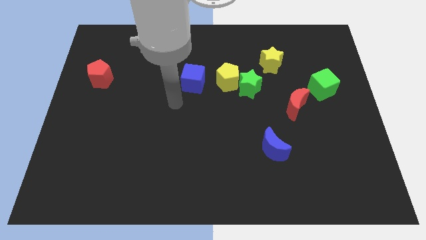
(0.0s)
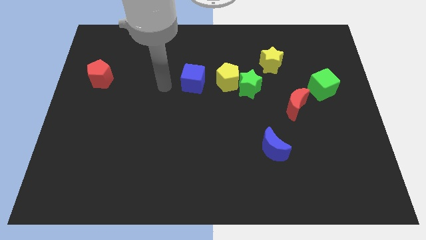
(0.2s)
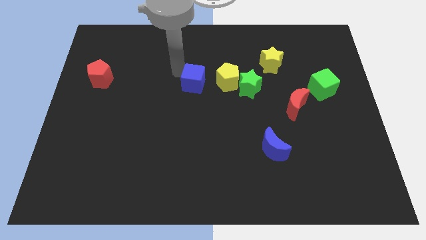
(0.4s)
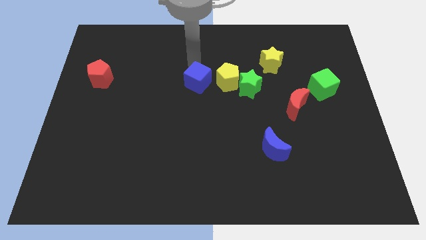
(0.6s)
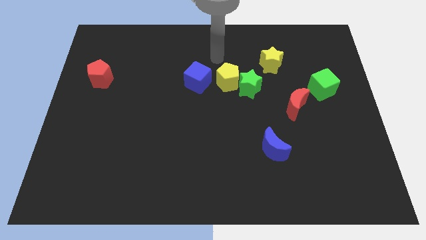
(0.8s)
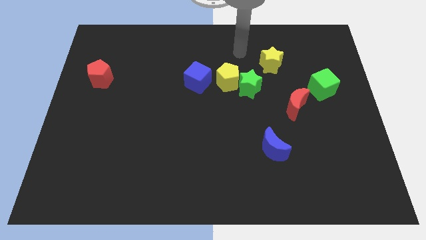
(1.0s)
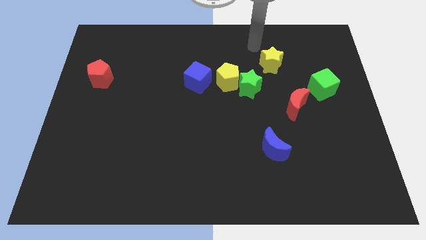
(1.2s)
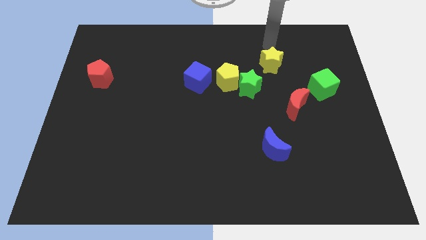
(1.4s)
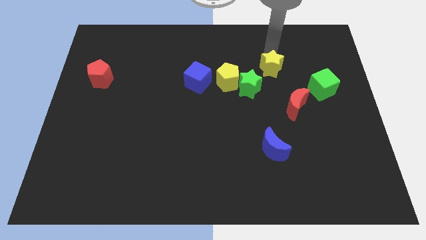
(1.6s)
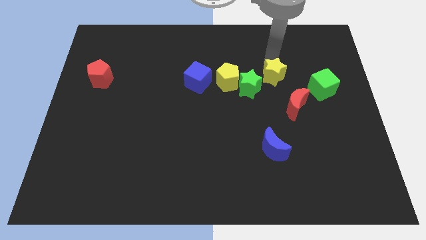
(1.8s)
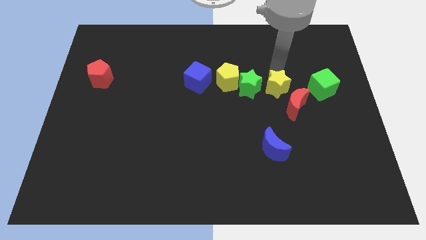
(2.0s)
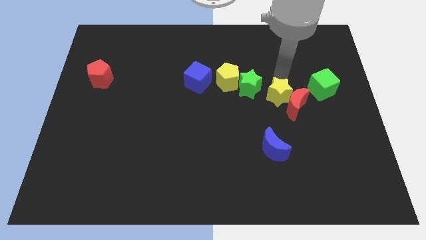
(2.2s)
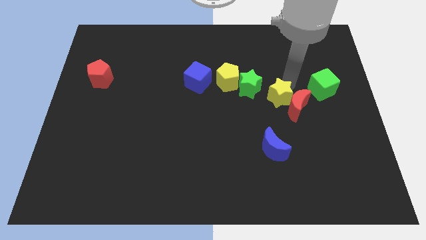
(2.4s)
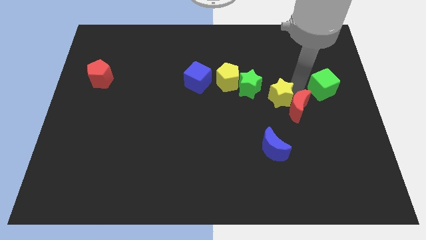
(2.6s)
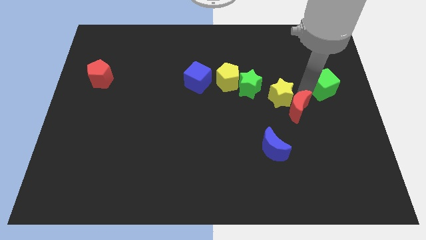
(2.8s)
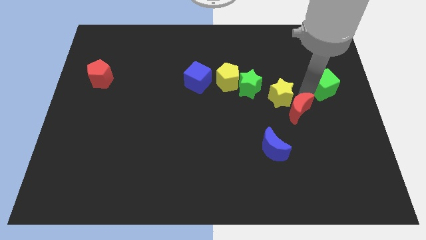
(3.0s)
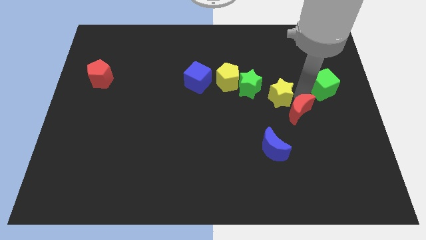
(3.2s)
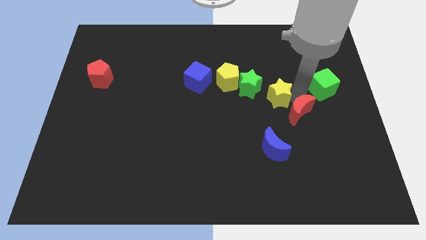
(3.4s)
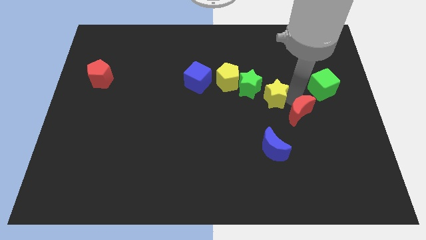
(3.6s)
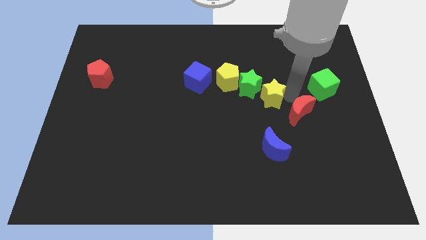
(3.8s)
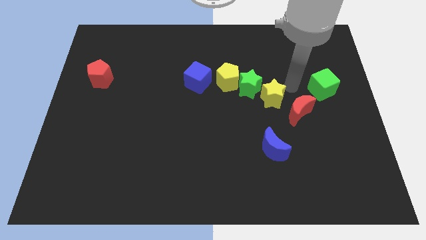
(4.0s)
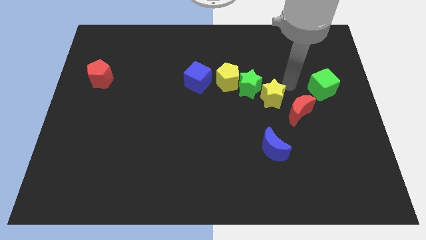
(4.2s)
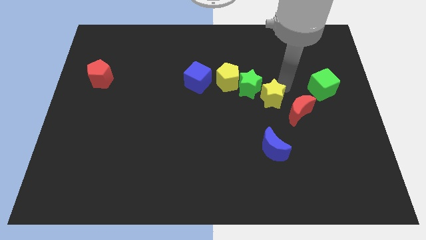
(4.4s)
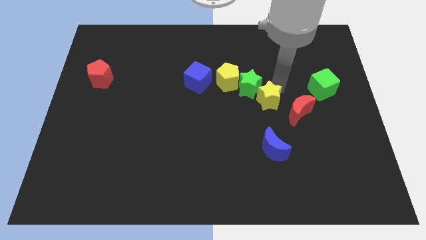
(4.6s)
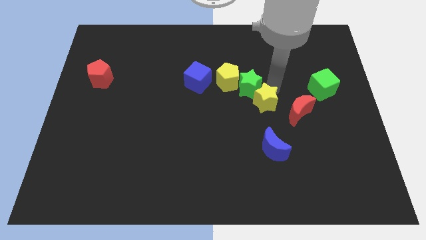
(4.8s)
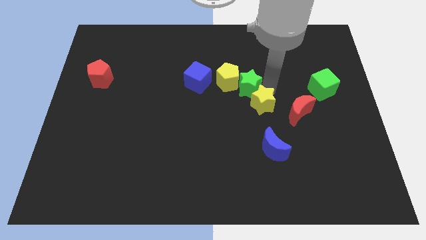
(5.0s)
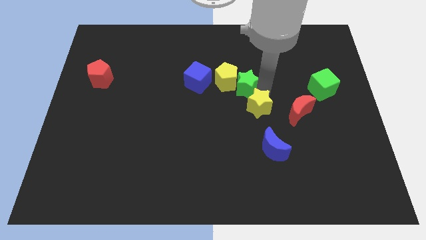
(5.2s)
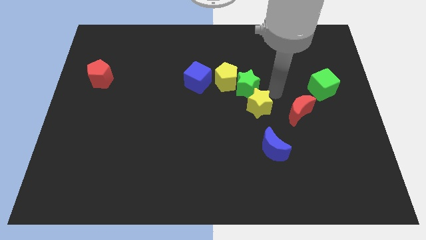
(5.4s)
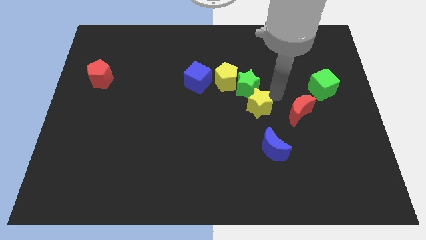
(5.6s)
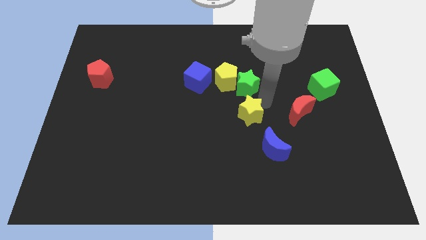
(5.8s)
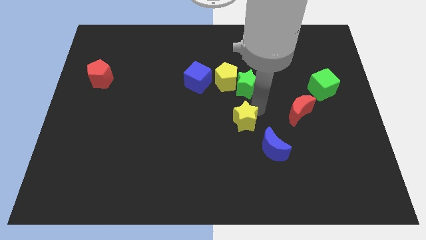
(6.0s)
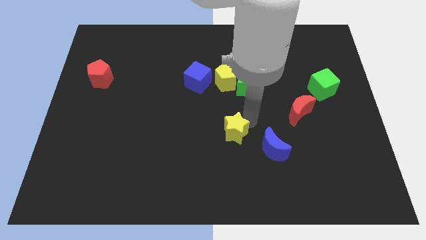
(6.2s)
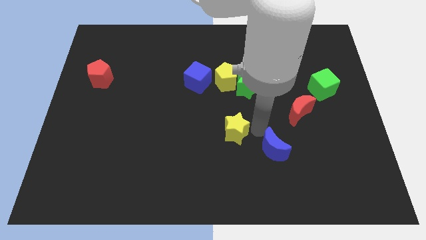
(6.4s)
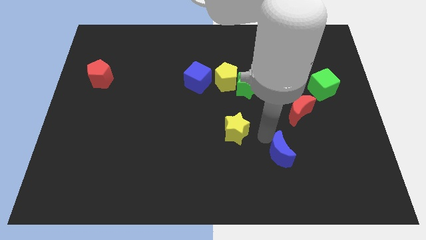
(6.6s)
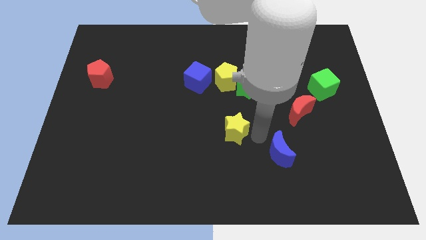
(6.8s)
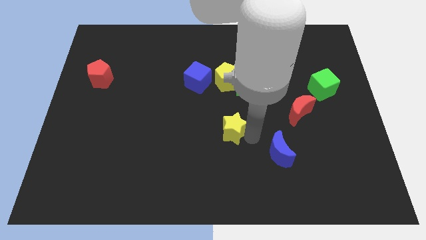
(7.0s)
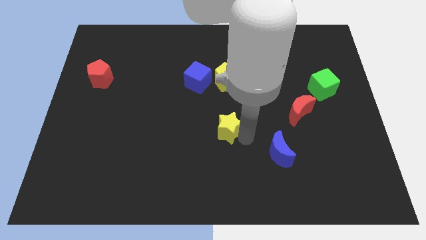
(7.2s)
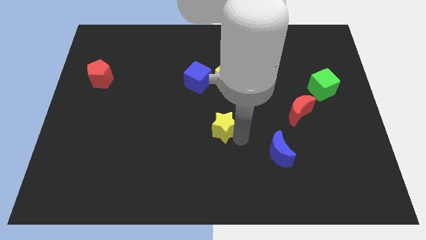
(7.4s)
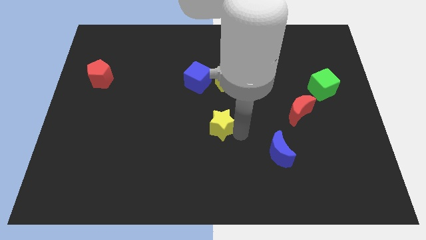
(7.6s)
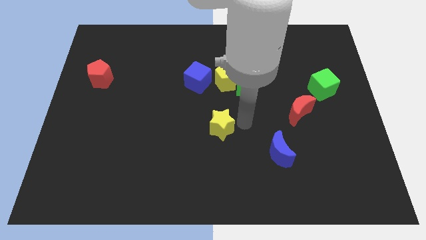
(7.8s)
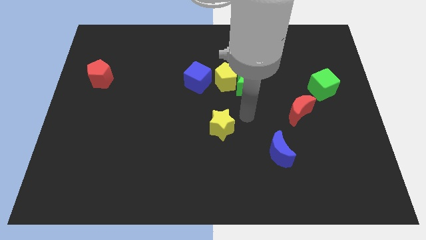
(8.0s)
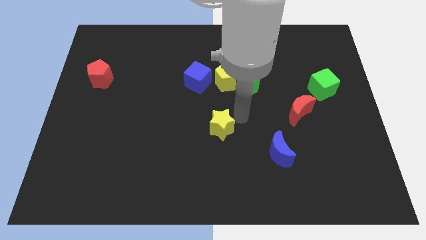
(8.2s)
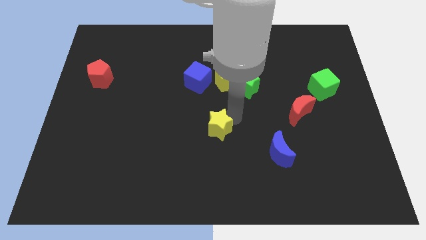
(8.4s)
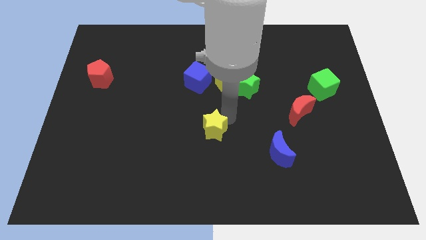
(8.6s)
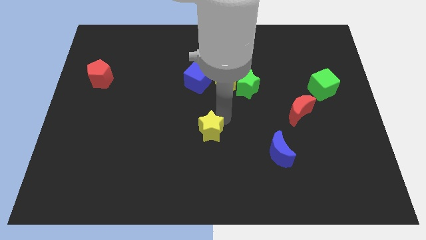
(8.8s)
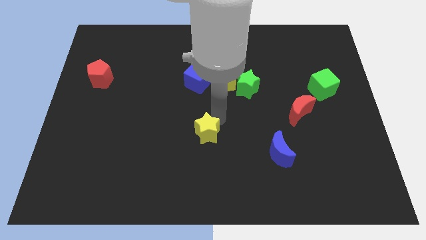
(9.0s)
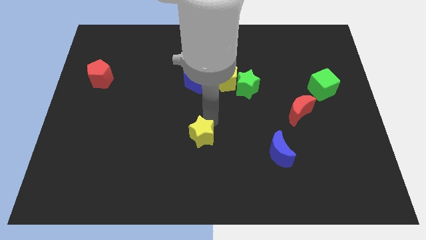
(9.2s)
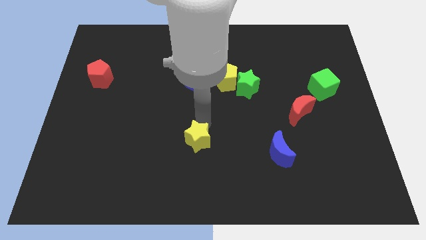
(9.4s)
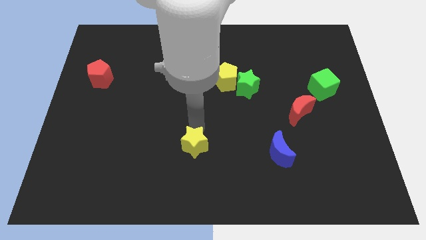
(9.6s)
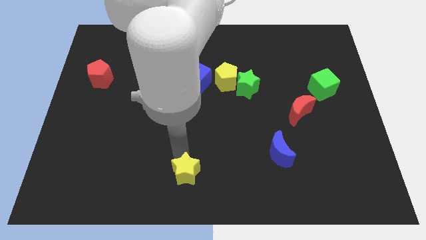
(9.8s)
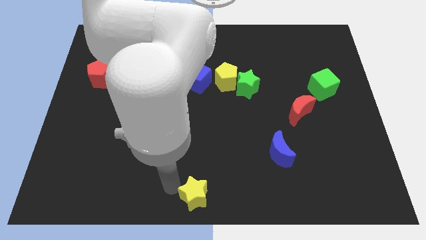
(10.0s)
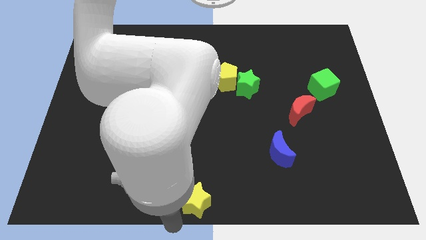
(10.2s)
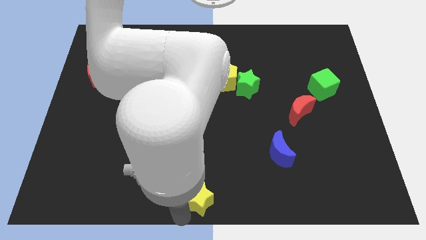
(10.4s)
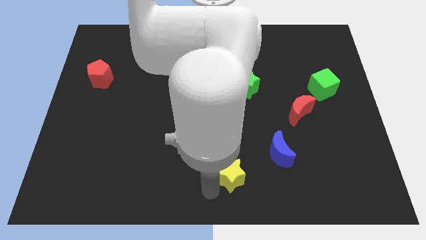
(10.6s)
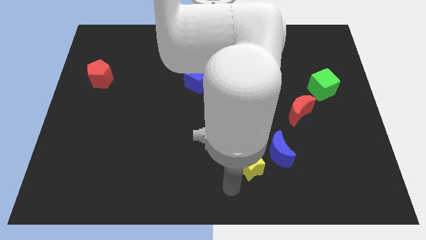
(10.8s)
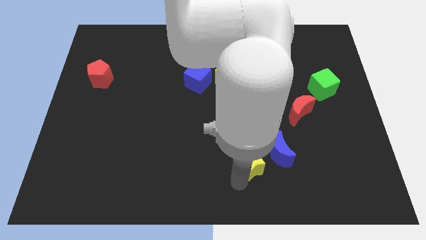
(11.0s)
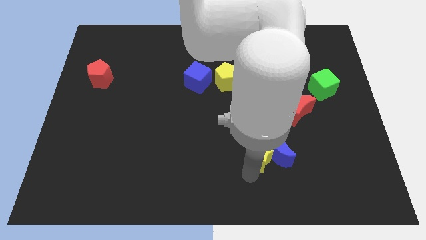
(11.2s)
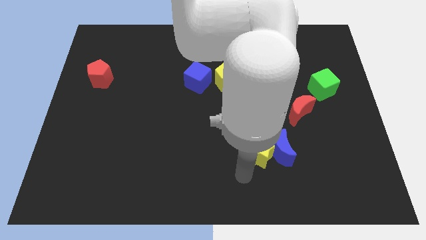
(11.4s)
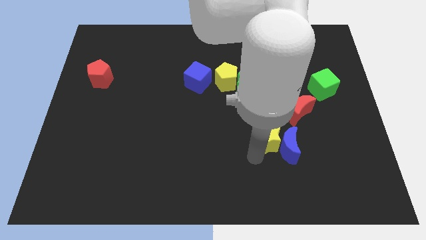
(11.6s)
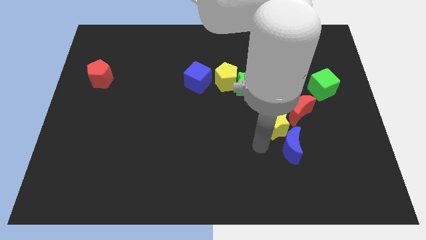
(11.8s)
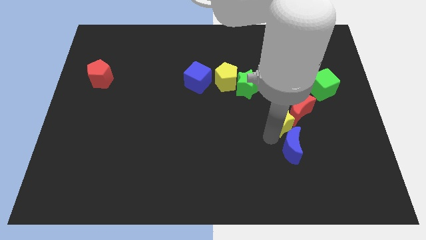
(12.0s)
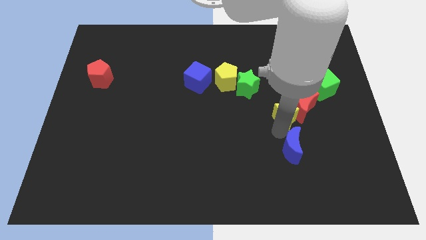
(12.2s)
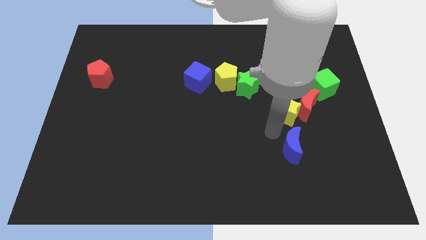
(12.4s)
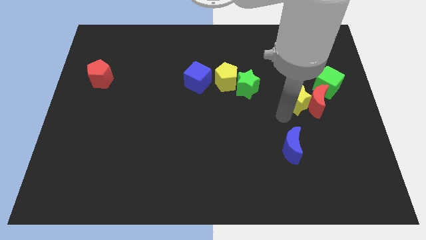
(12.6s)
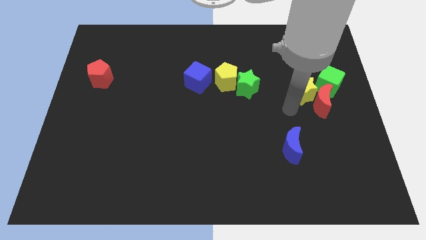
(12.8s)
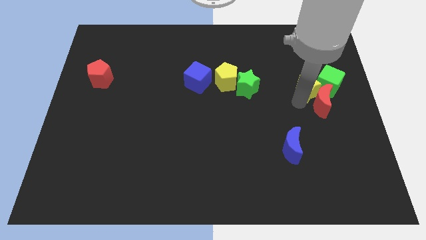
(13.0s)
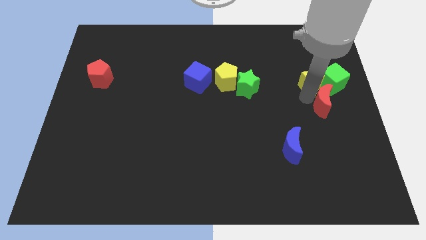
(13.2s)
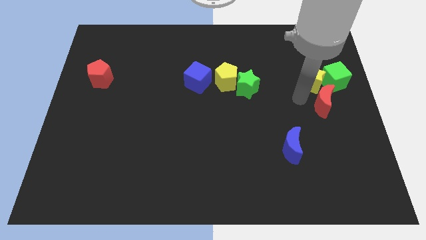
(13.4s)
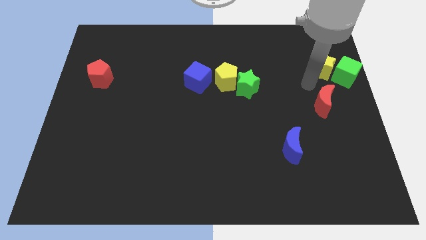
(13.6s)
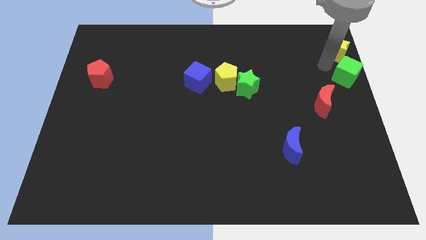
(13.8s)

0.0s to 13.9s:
slide the yellow star to the top right

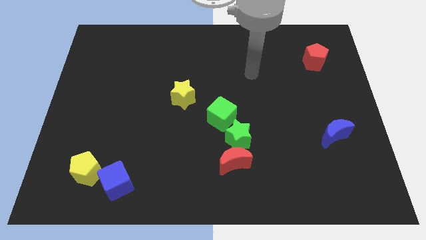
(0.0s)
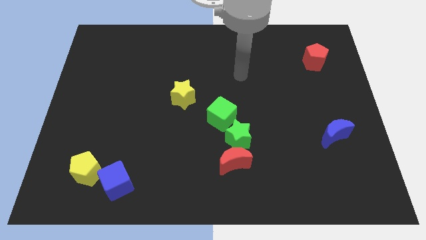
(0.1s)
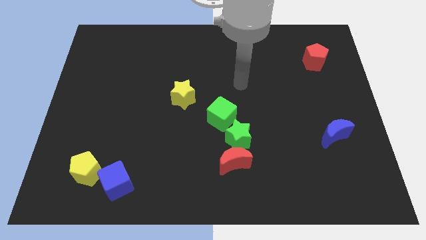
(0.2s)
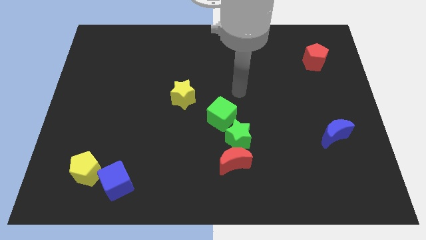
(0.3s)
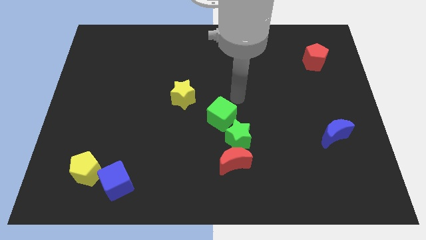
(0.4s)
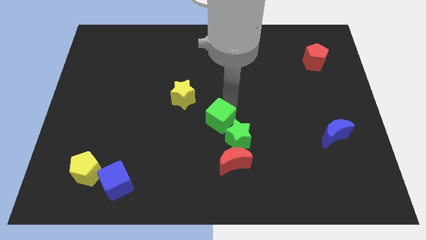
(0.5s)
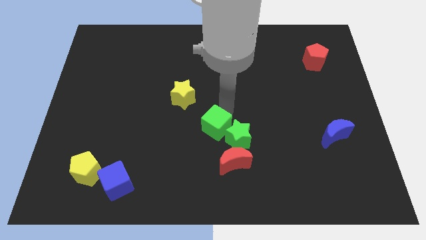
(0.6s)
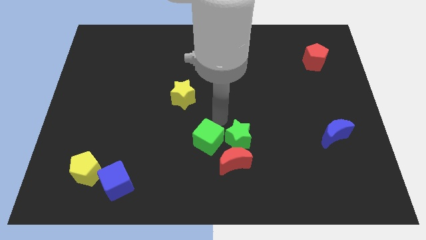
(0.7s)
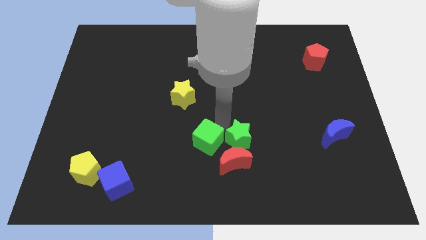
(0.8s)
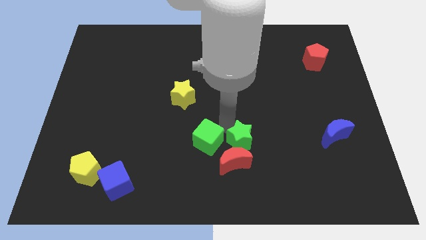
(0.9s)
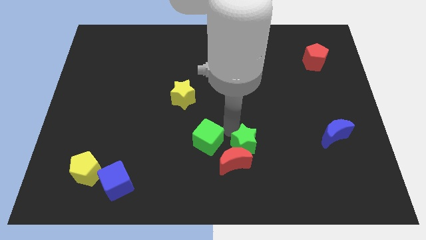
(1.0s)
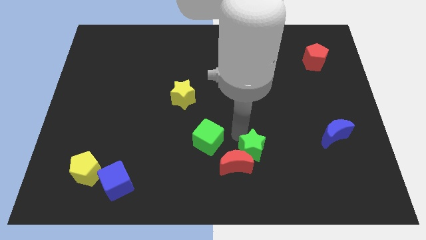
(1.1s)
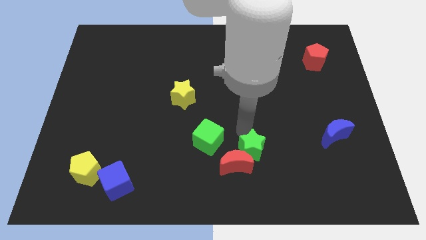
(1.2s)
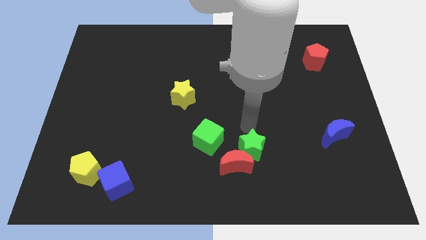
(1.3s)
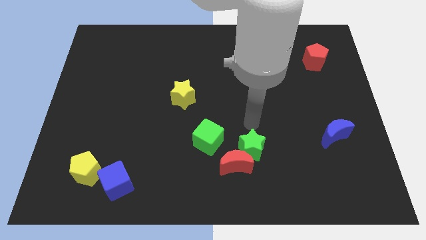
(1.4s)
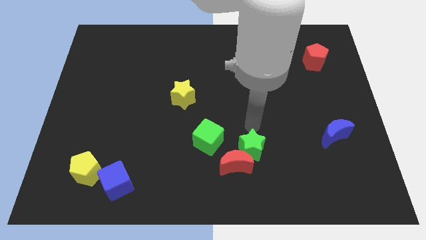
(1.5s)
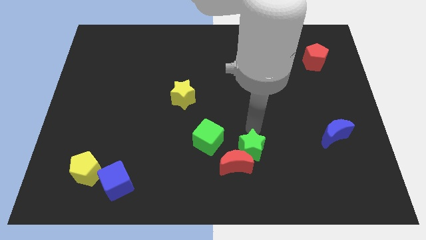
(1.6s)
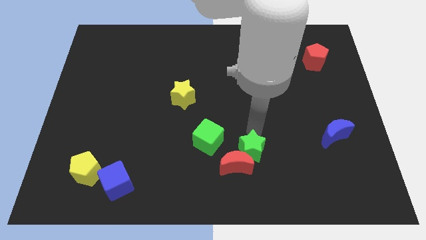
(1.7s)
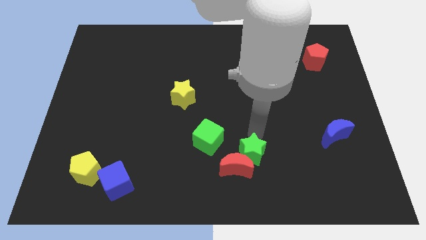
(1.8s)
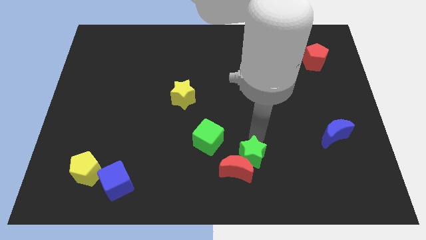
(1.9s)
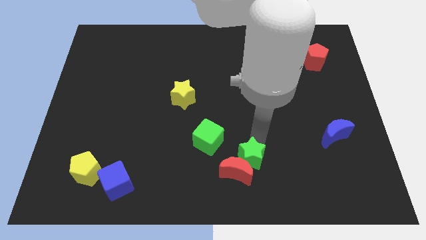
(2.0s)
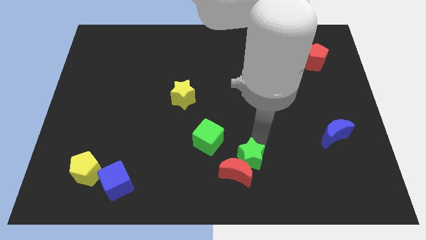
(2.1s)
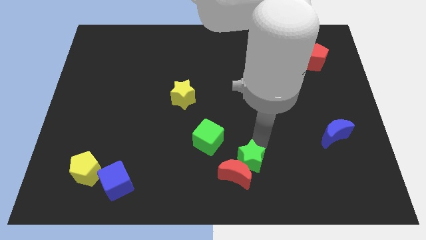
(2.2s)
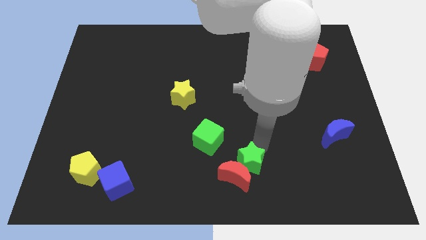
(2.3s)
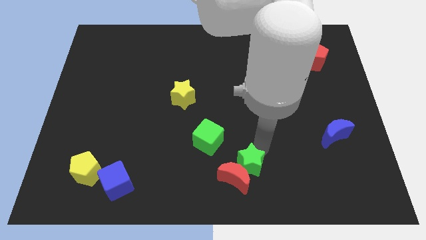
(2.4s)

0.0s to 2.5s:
move the green star to the bottom side
